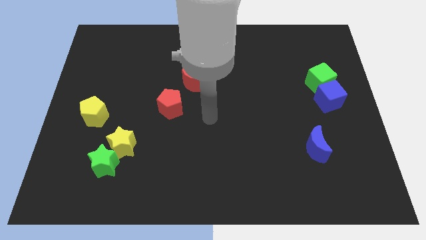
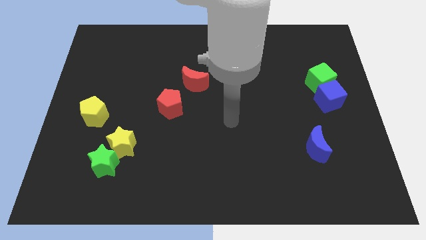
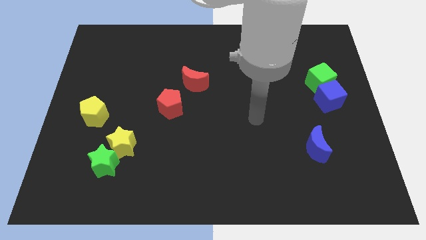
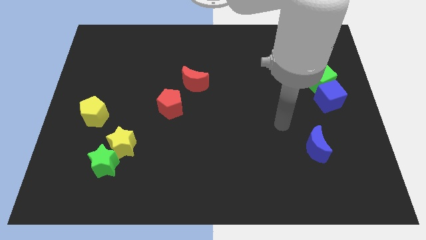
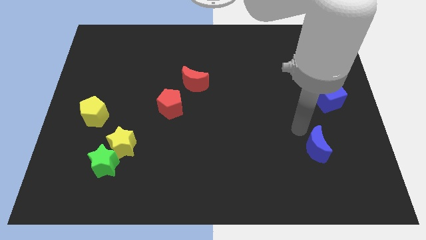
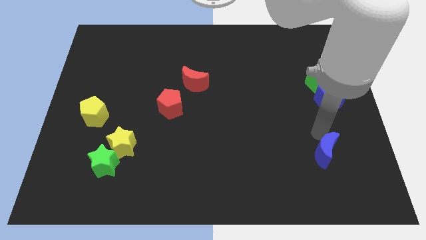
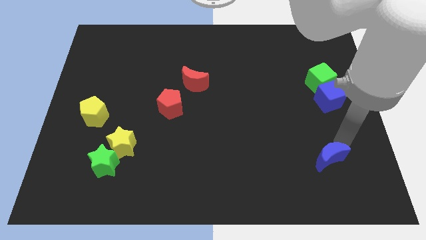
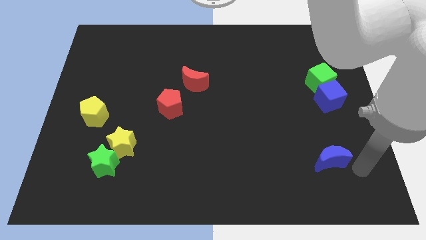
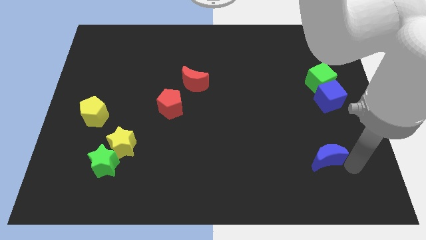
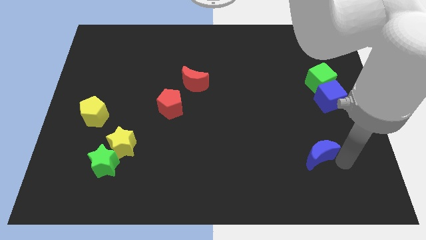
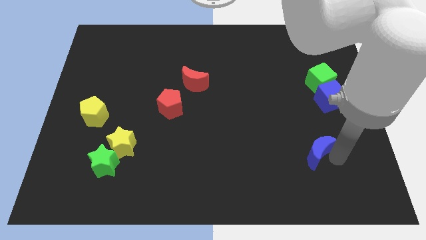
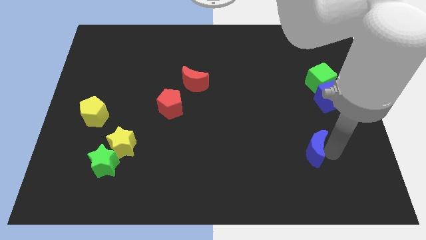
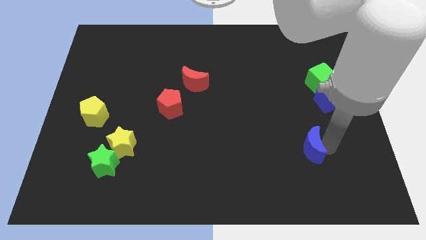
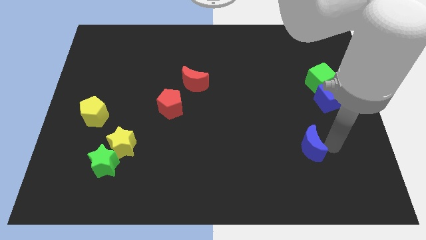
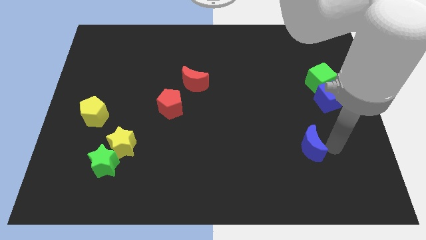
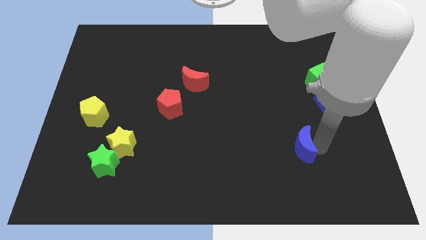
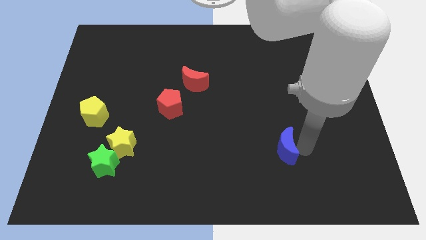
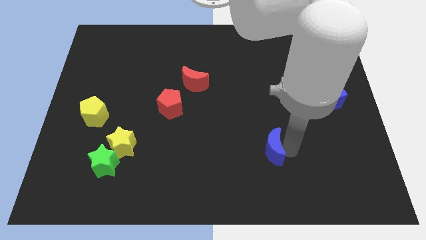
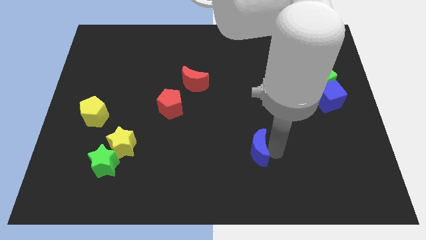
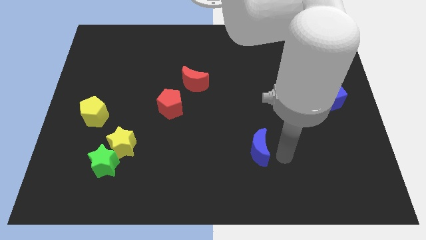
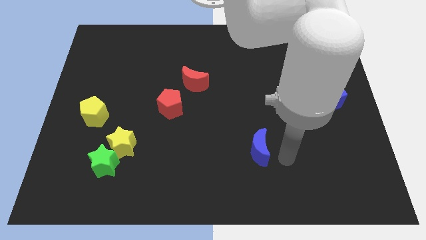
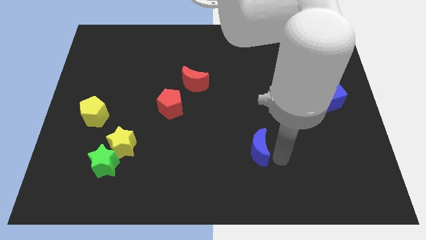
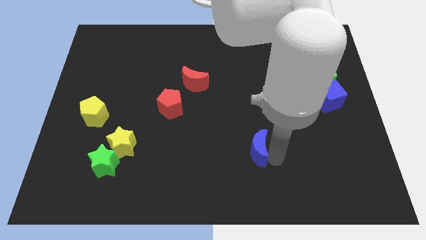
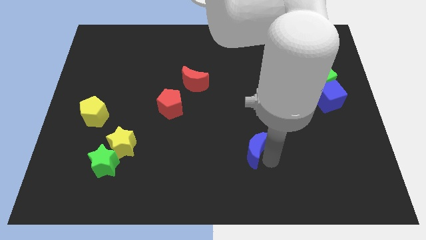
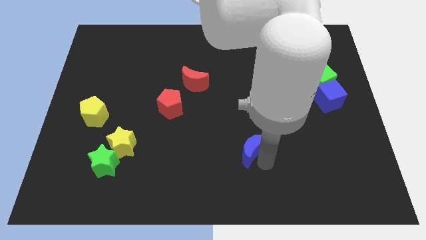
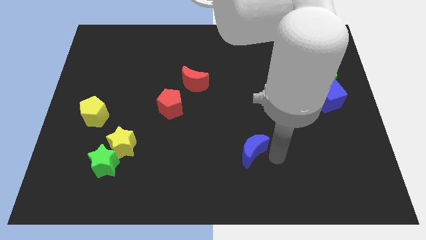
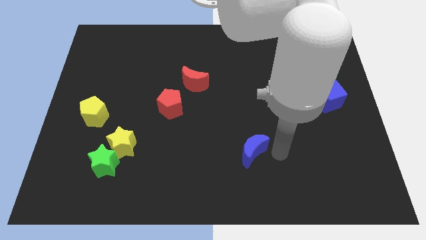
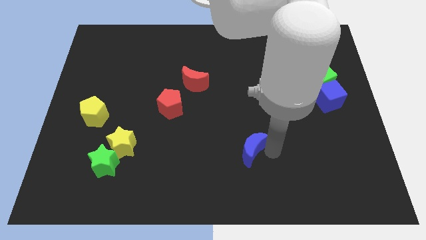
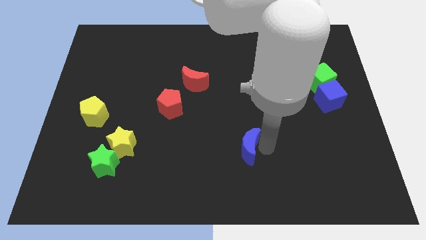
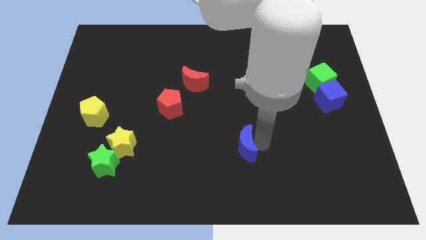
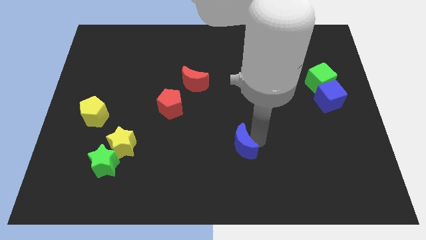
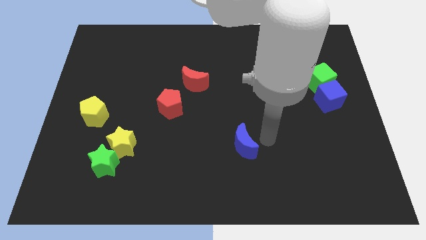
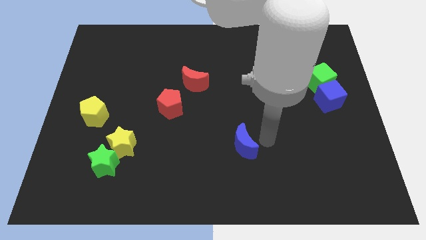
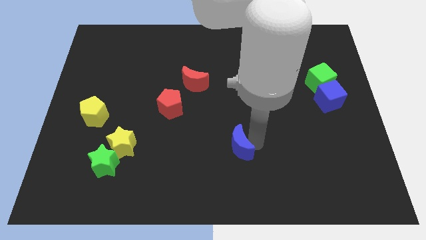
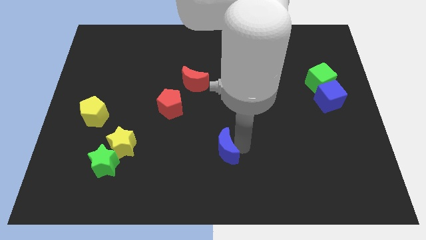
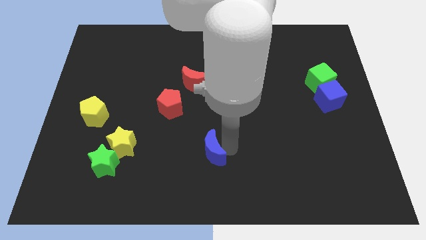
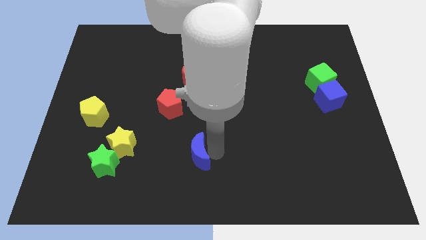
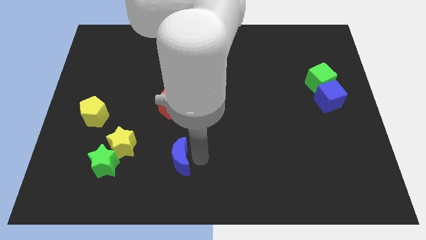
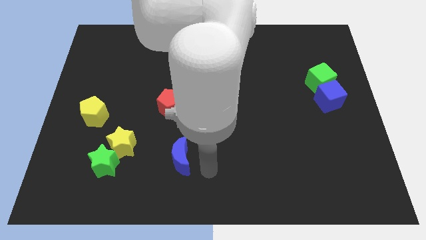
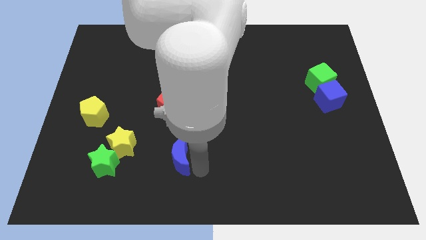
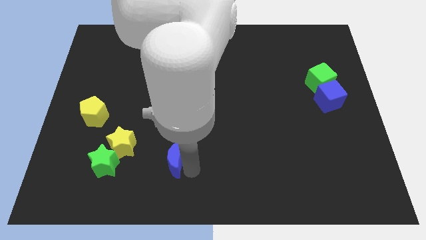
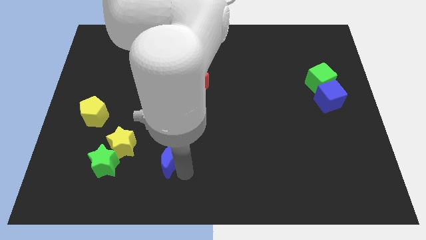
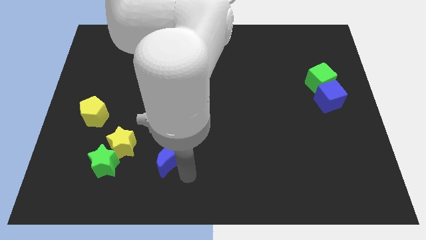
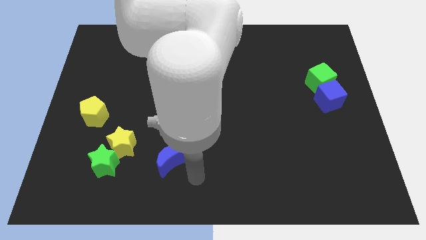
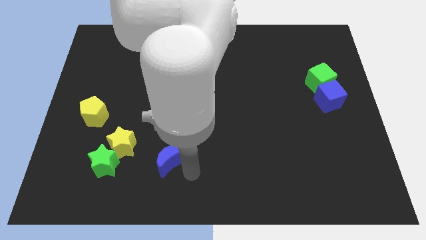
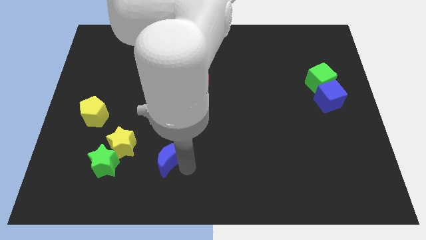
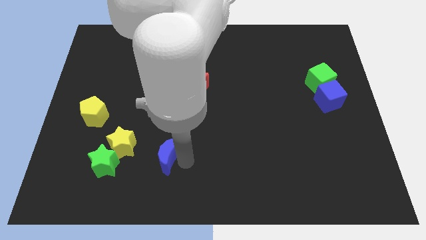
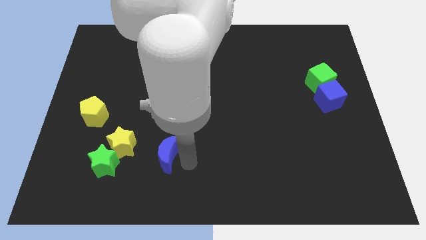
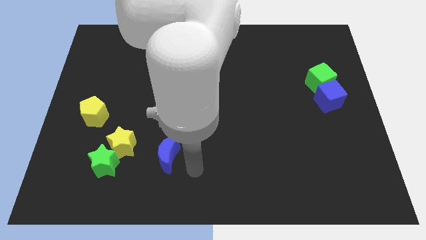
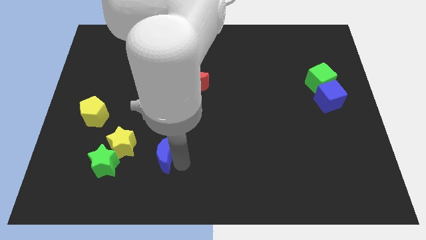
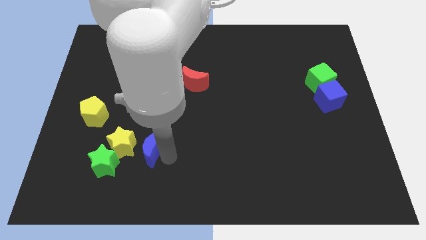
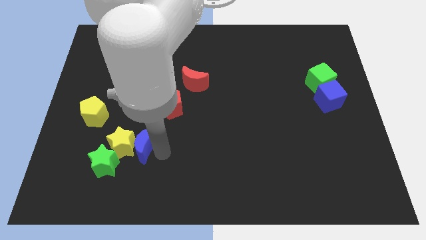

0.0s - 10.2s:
slide the blue moon towards the yellow star

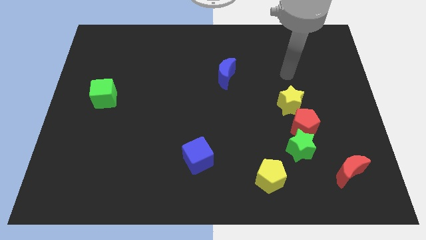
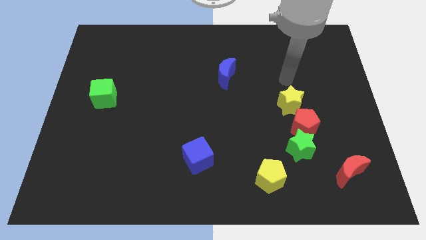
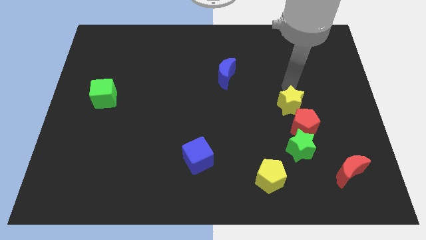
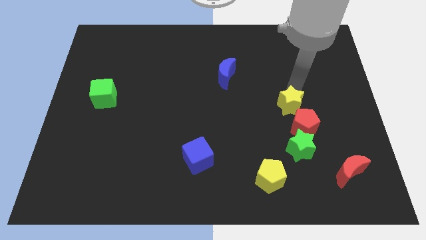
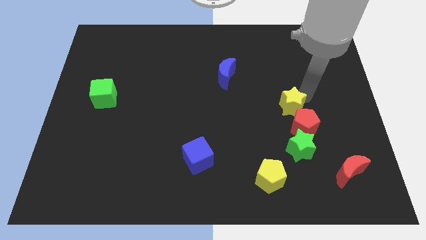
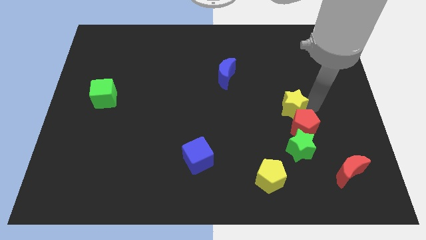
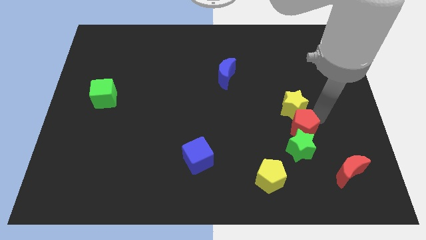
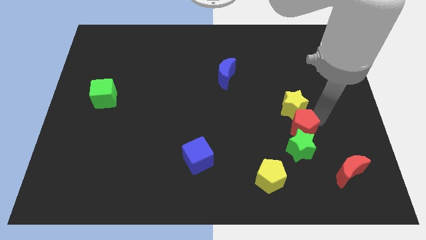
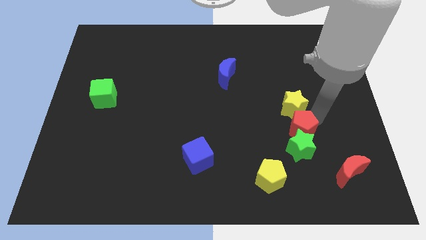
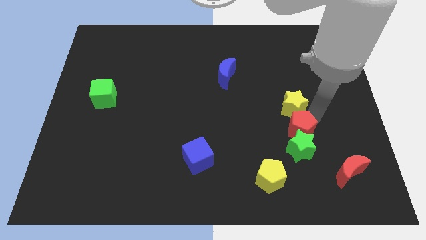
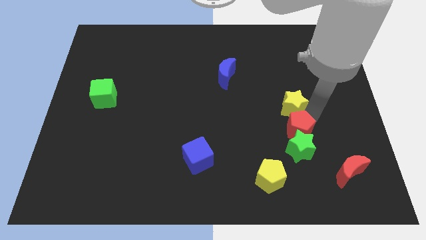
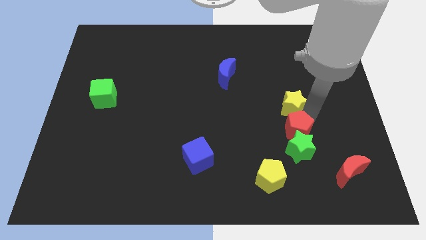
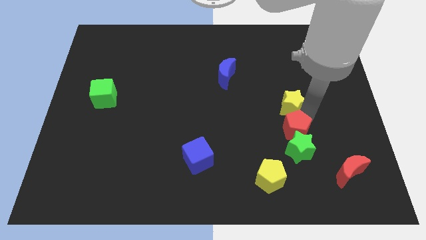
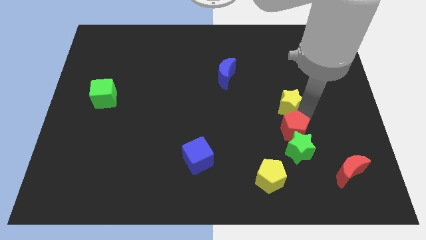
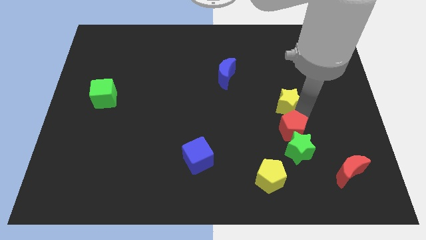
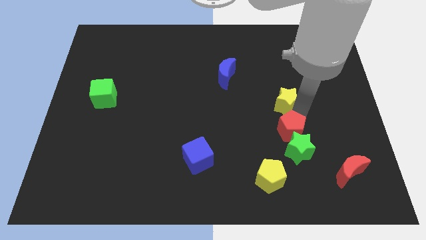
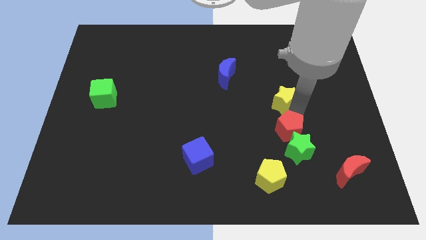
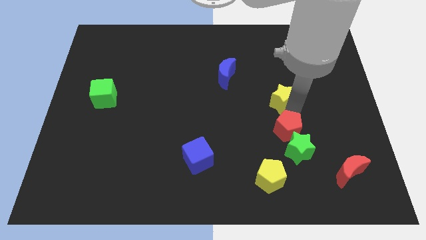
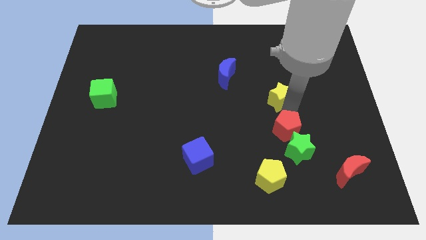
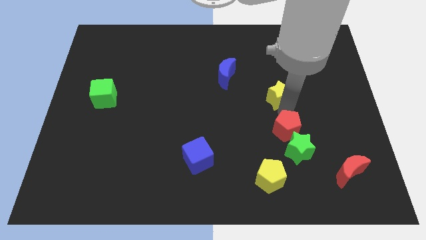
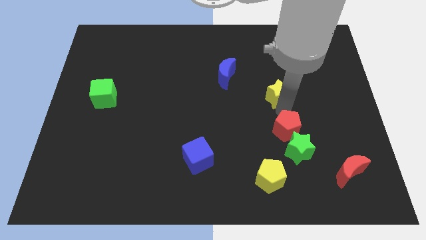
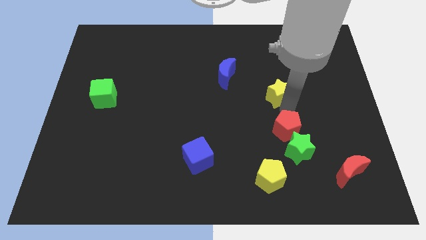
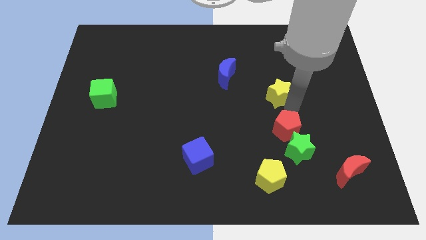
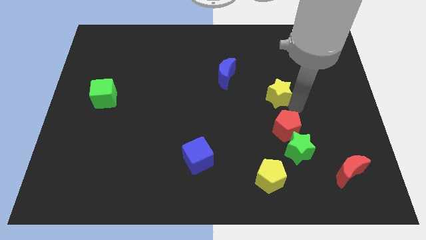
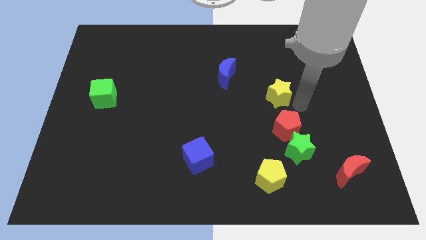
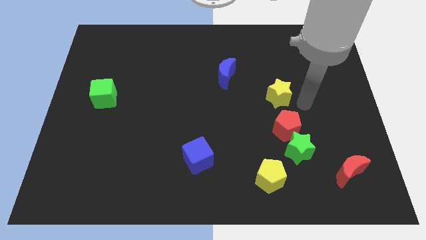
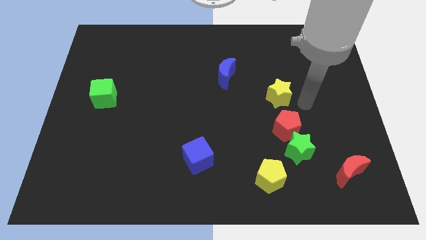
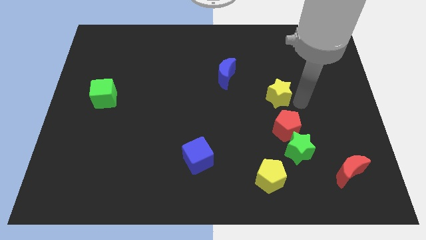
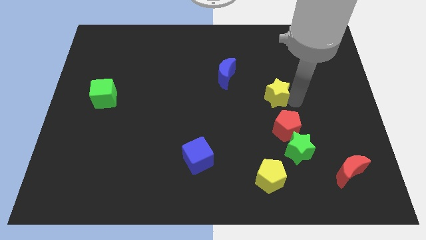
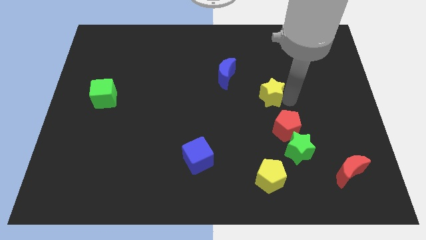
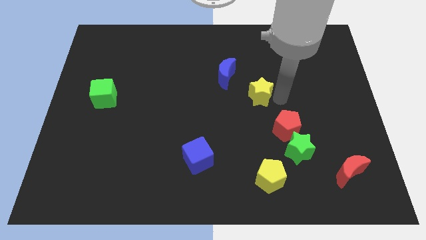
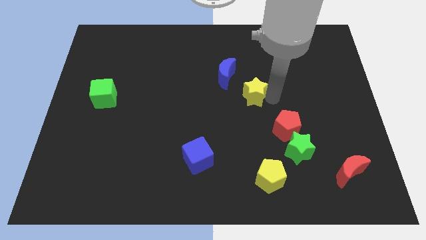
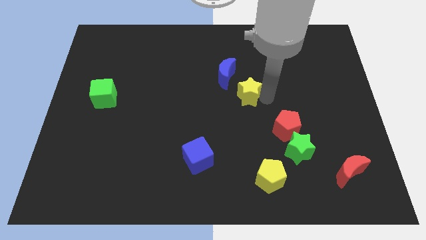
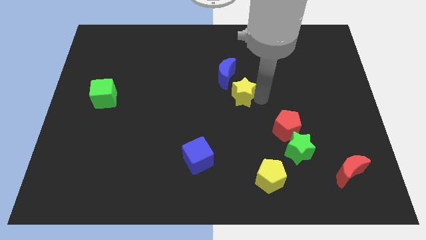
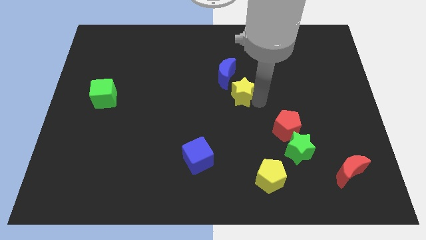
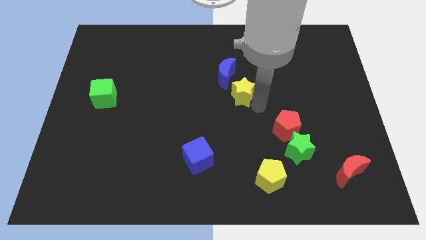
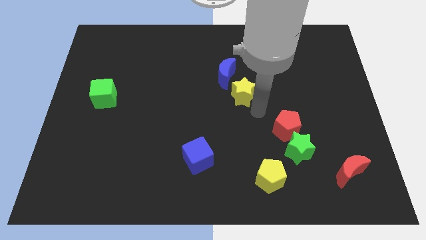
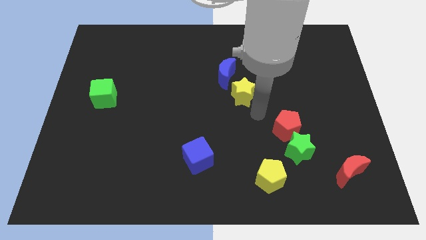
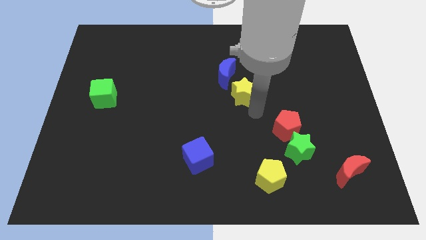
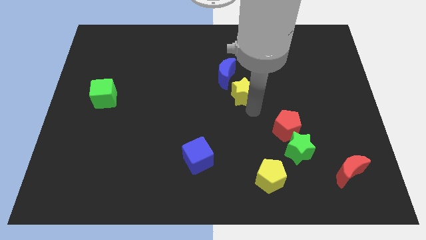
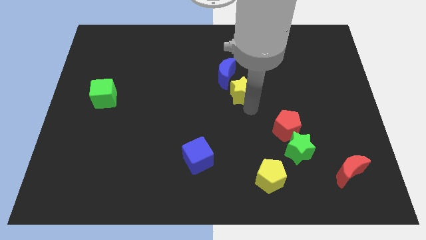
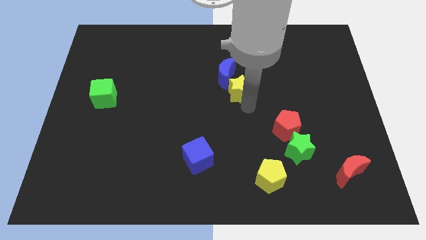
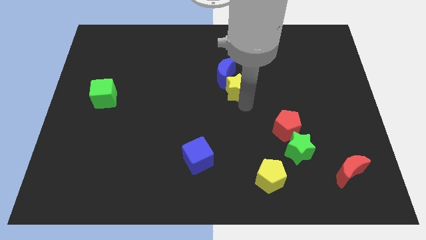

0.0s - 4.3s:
move the yellow star next to the blue moon
